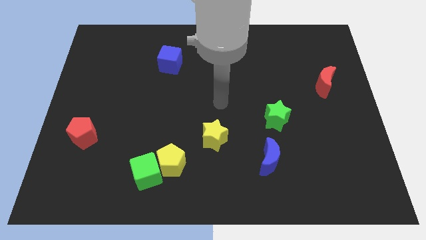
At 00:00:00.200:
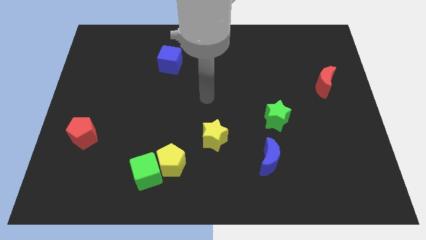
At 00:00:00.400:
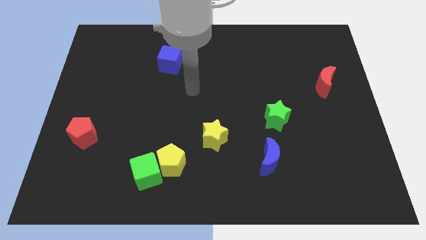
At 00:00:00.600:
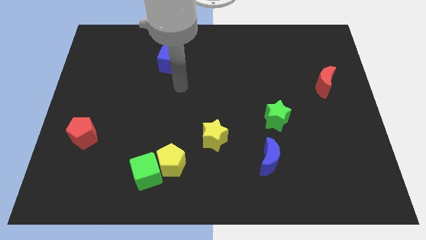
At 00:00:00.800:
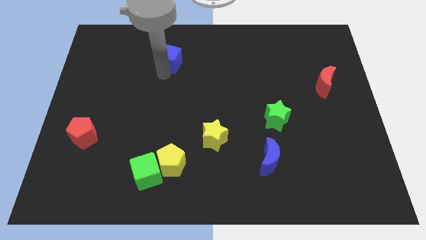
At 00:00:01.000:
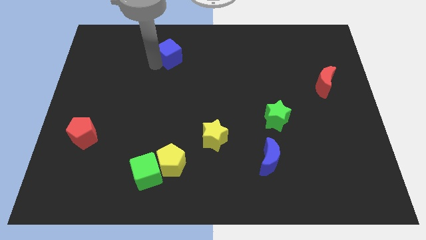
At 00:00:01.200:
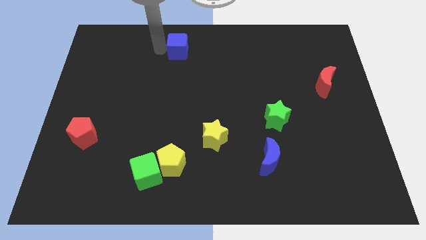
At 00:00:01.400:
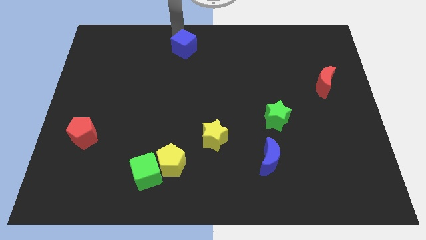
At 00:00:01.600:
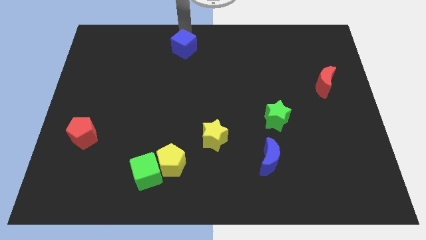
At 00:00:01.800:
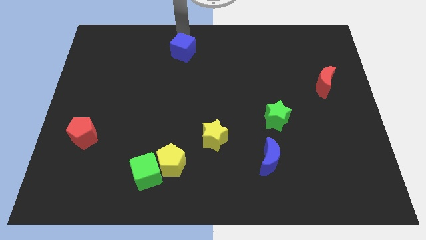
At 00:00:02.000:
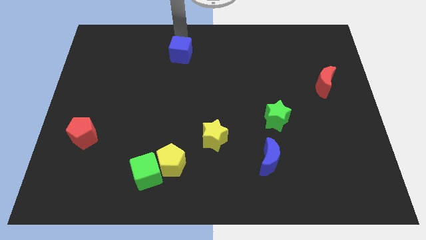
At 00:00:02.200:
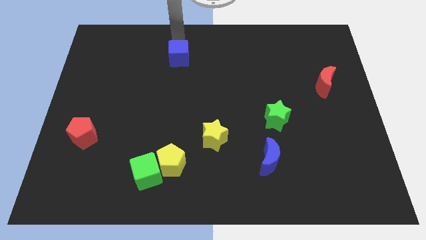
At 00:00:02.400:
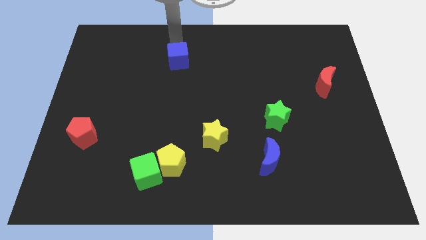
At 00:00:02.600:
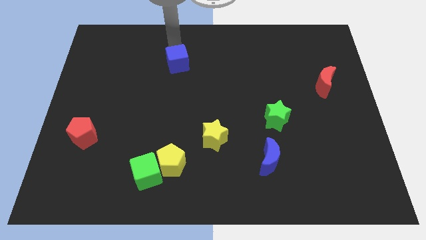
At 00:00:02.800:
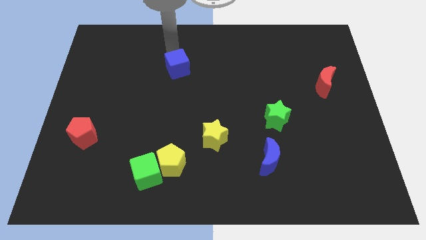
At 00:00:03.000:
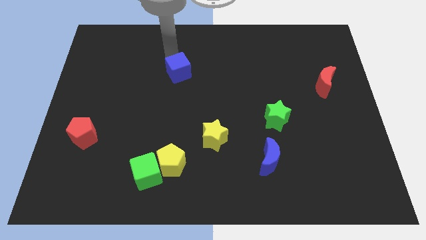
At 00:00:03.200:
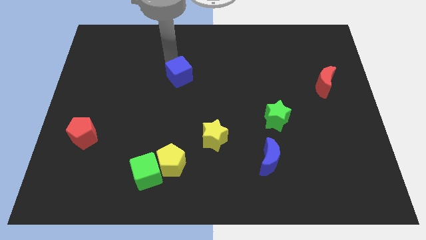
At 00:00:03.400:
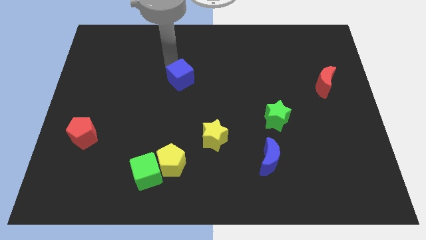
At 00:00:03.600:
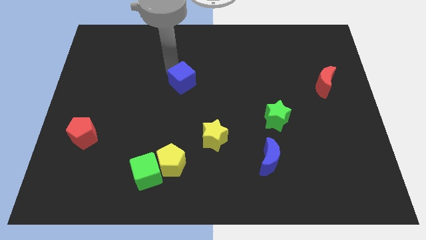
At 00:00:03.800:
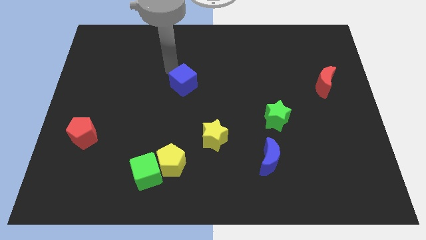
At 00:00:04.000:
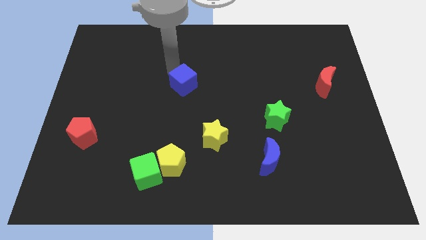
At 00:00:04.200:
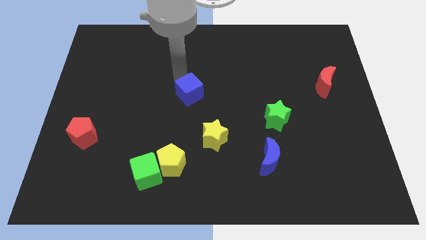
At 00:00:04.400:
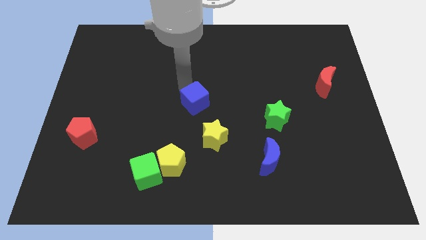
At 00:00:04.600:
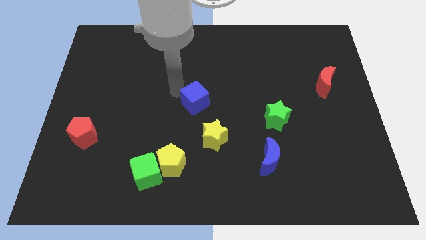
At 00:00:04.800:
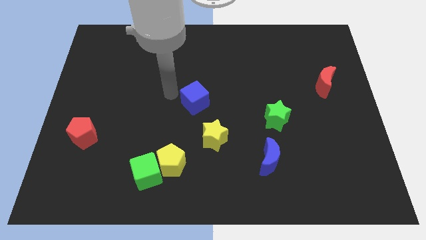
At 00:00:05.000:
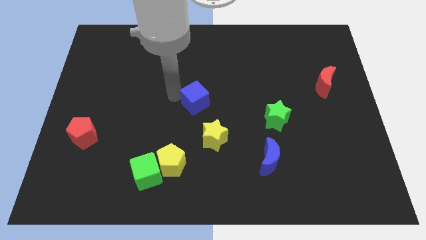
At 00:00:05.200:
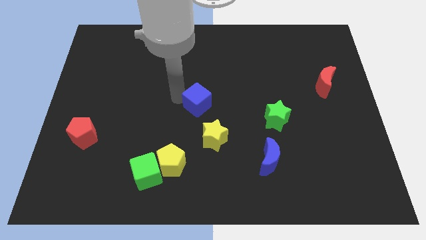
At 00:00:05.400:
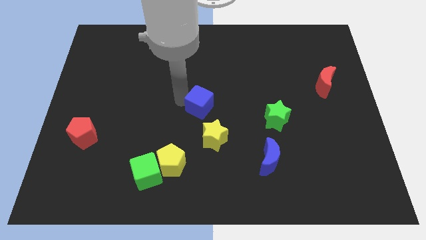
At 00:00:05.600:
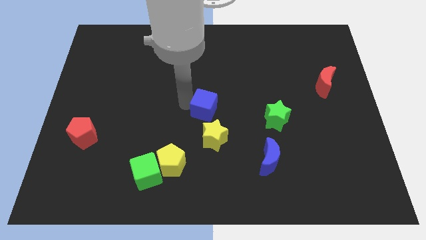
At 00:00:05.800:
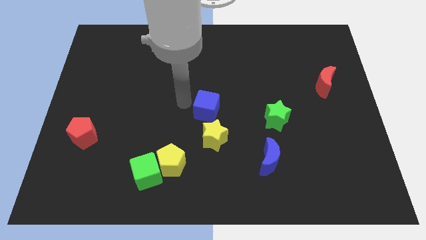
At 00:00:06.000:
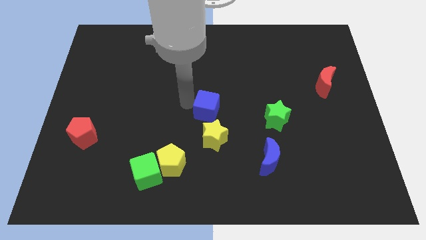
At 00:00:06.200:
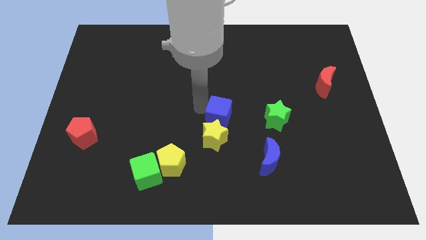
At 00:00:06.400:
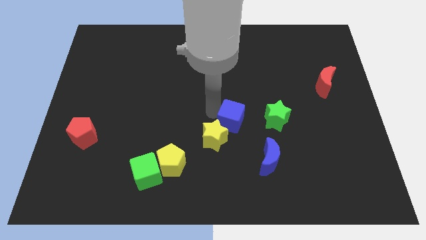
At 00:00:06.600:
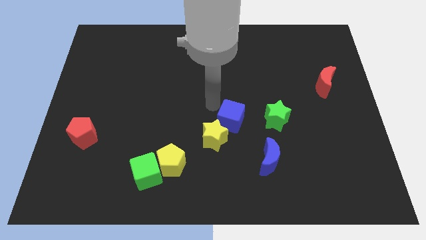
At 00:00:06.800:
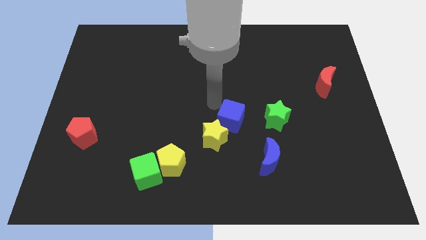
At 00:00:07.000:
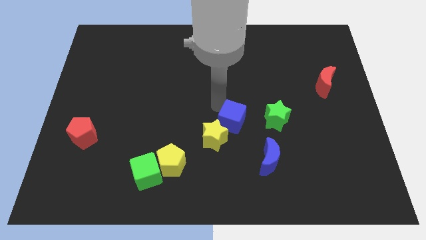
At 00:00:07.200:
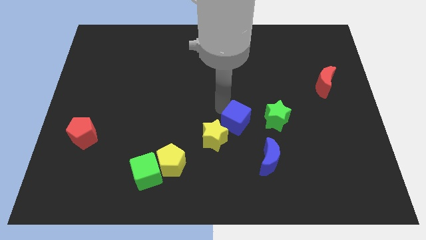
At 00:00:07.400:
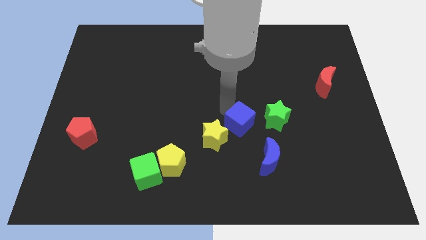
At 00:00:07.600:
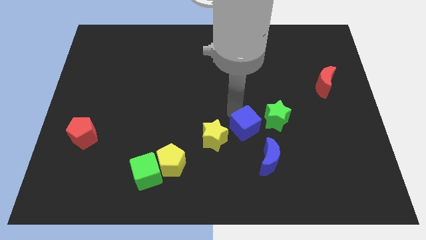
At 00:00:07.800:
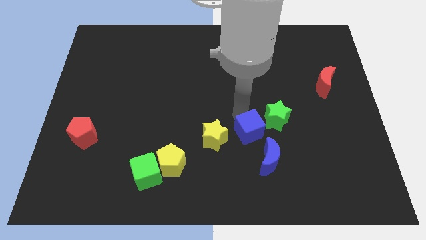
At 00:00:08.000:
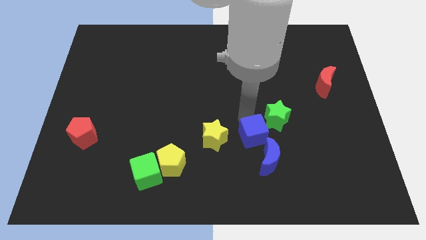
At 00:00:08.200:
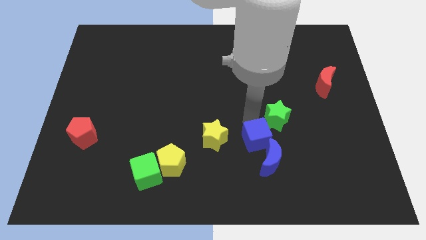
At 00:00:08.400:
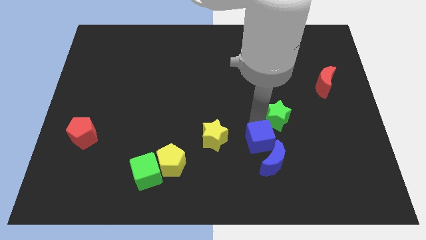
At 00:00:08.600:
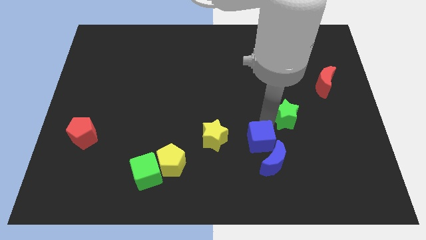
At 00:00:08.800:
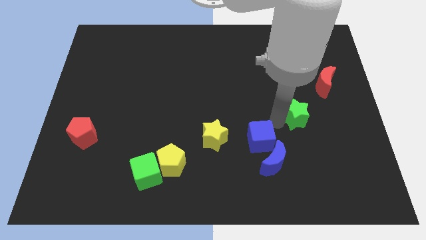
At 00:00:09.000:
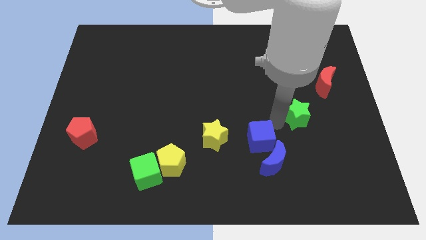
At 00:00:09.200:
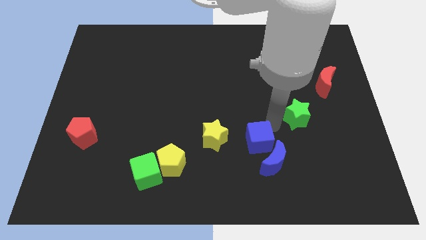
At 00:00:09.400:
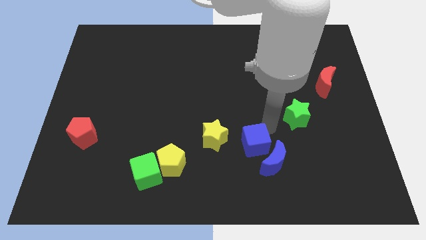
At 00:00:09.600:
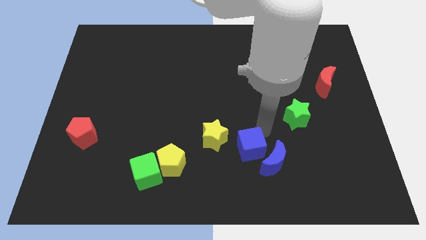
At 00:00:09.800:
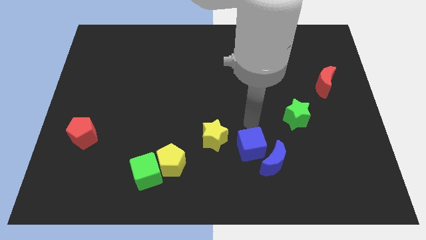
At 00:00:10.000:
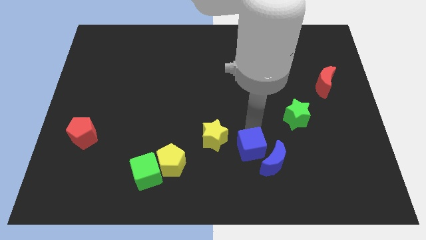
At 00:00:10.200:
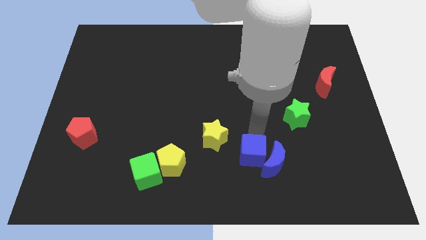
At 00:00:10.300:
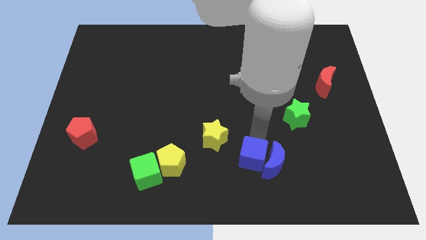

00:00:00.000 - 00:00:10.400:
put the blue cube to the bottom left side of the blue moon

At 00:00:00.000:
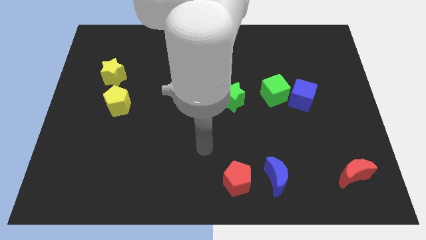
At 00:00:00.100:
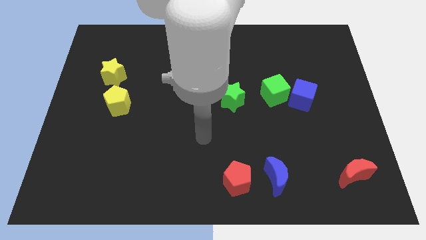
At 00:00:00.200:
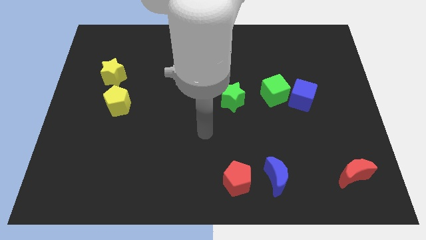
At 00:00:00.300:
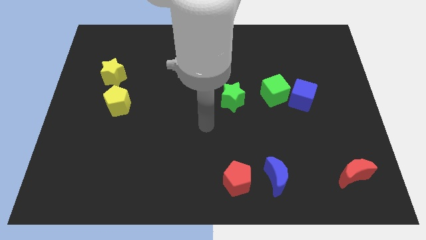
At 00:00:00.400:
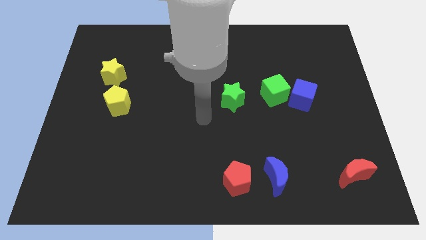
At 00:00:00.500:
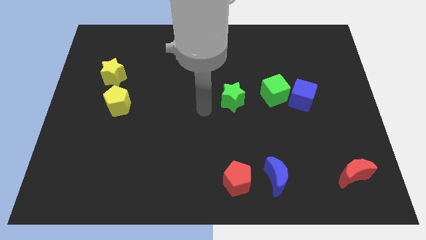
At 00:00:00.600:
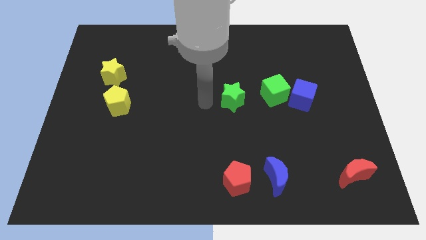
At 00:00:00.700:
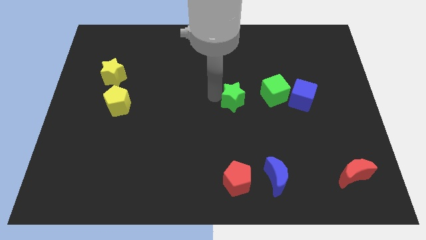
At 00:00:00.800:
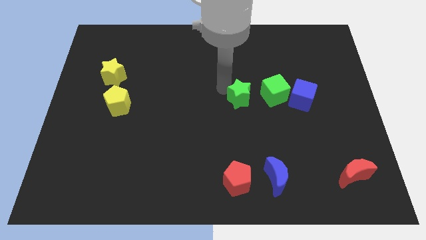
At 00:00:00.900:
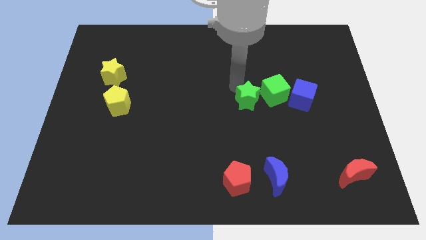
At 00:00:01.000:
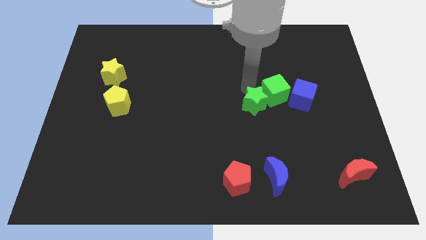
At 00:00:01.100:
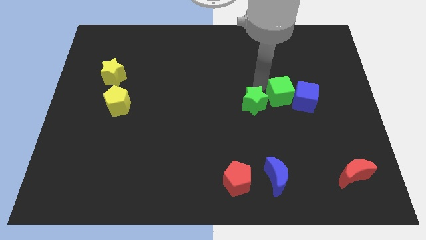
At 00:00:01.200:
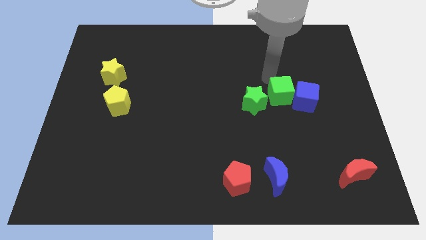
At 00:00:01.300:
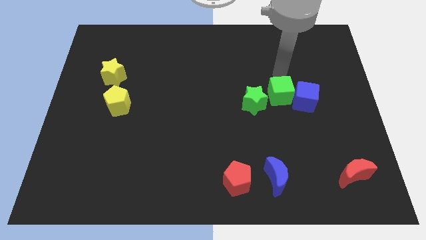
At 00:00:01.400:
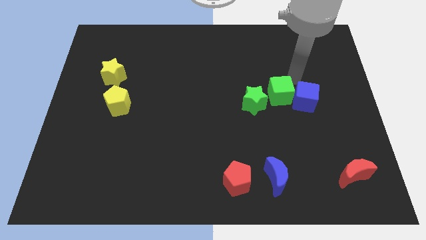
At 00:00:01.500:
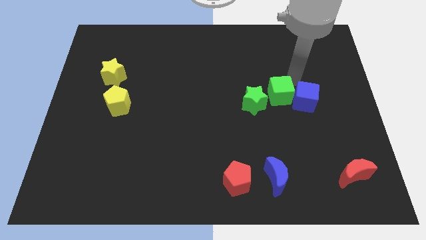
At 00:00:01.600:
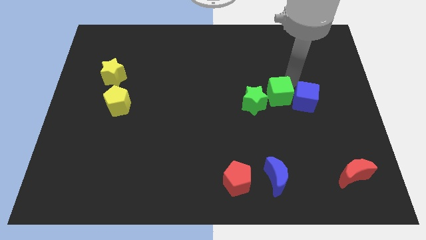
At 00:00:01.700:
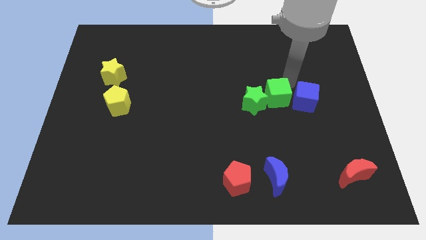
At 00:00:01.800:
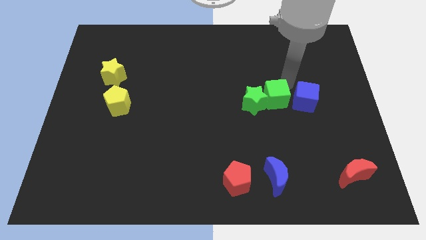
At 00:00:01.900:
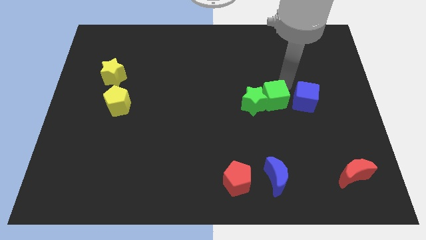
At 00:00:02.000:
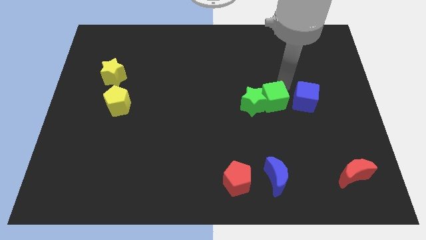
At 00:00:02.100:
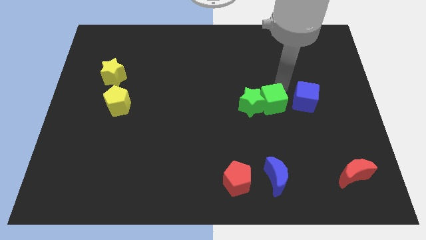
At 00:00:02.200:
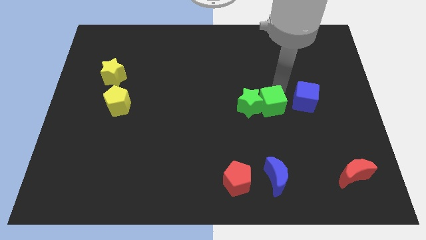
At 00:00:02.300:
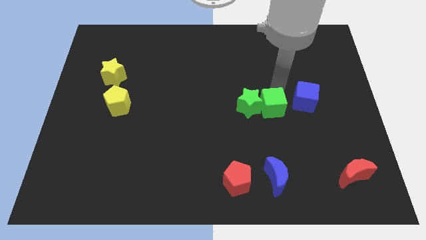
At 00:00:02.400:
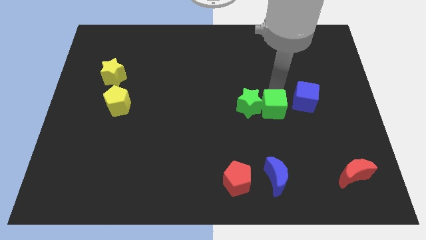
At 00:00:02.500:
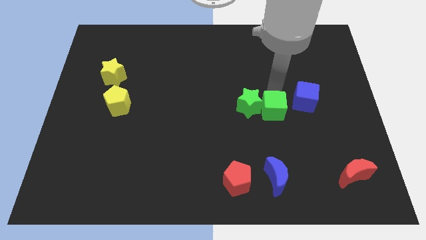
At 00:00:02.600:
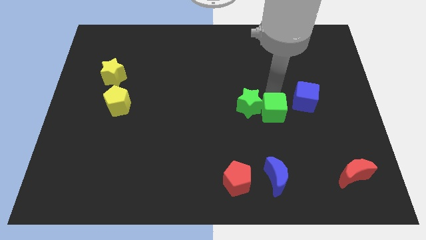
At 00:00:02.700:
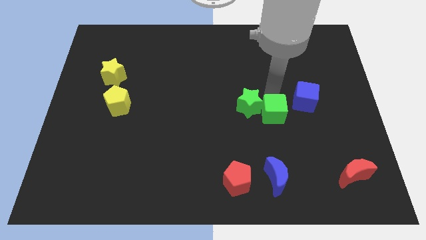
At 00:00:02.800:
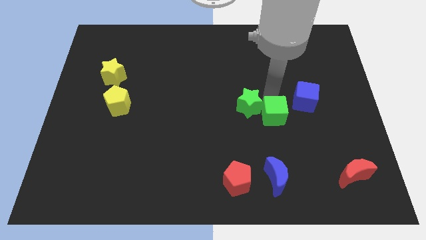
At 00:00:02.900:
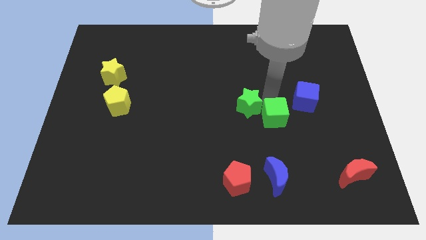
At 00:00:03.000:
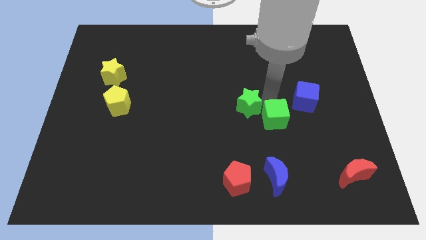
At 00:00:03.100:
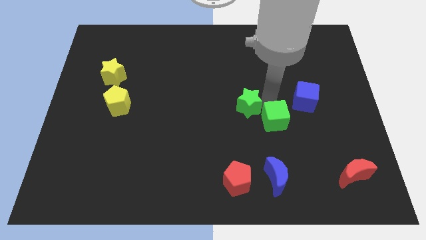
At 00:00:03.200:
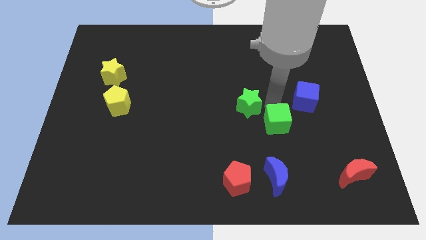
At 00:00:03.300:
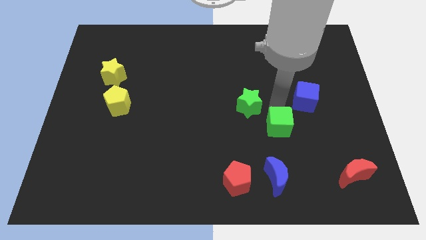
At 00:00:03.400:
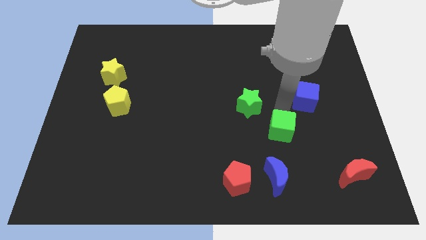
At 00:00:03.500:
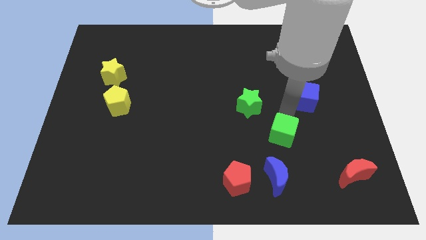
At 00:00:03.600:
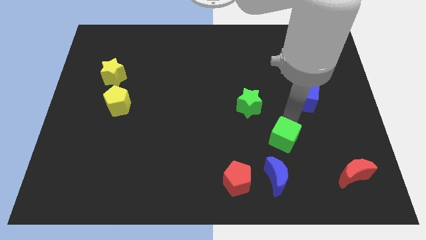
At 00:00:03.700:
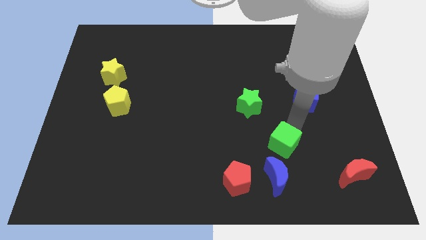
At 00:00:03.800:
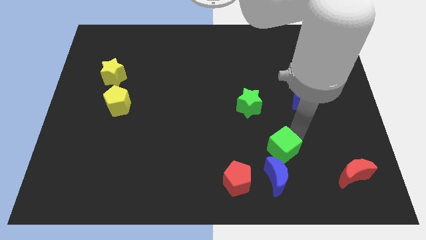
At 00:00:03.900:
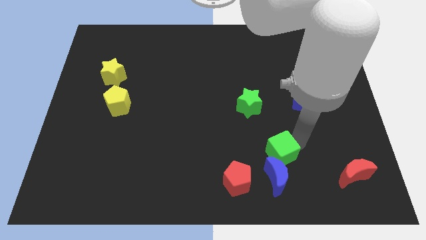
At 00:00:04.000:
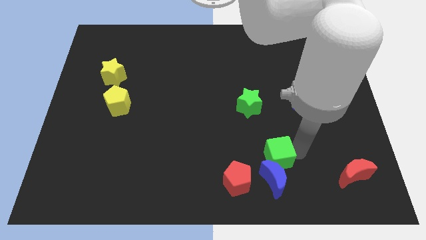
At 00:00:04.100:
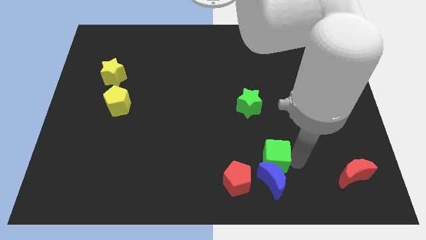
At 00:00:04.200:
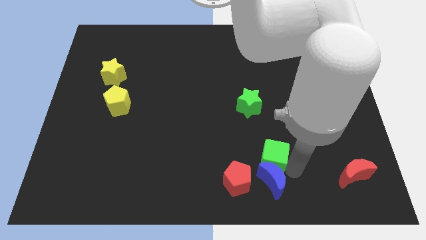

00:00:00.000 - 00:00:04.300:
put the green cube below the green star
